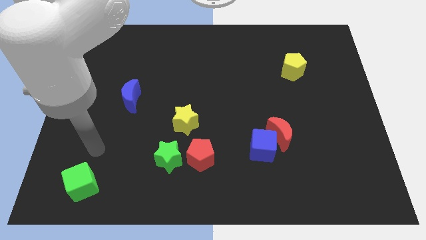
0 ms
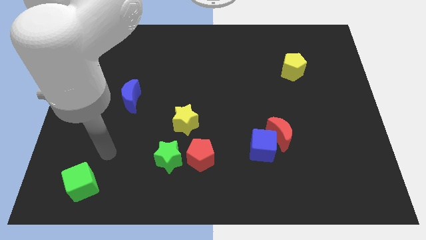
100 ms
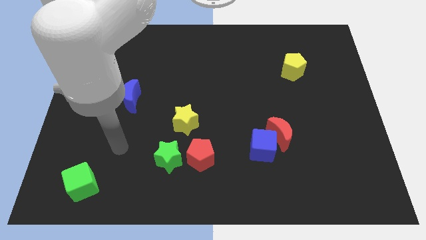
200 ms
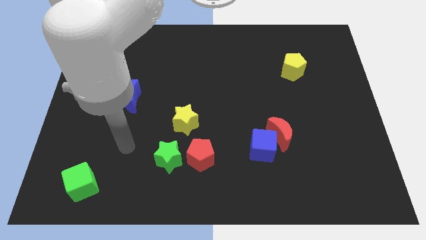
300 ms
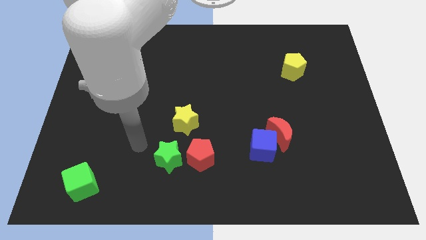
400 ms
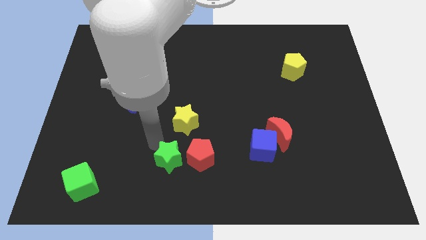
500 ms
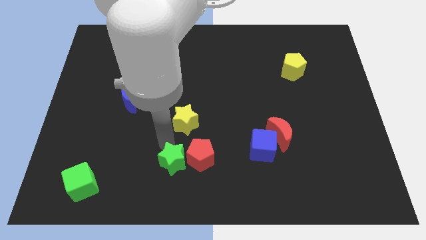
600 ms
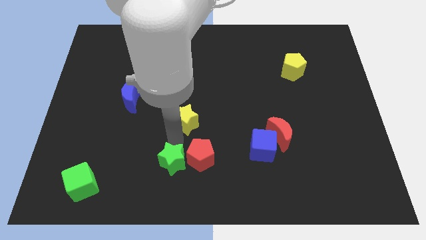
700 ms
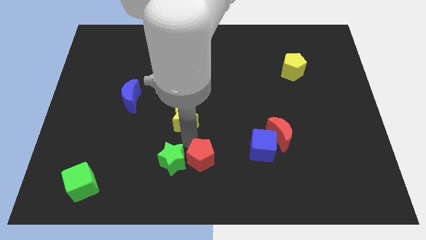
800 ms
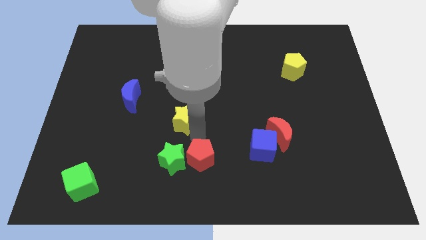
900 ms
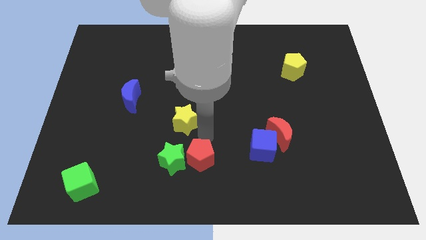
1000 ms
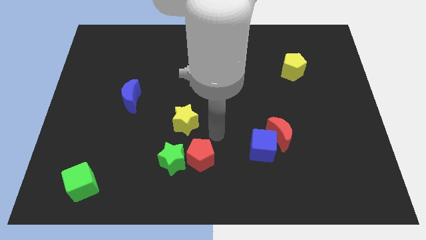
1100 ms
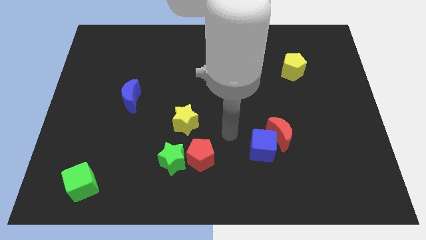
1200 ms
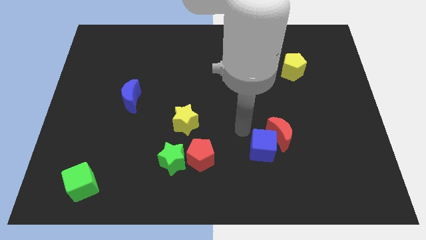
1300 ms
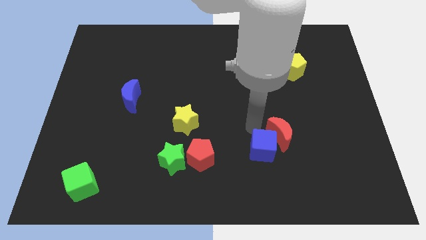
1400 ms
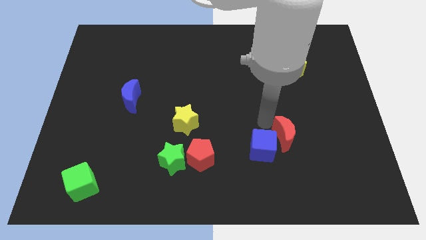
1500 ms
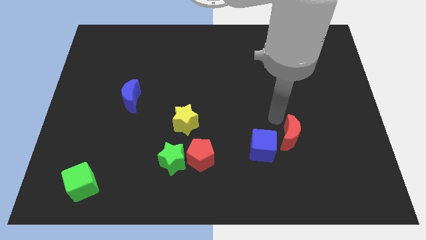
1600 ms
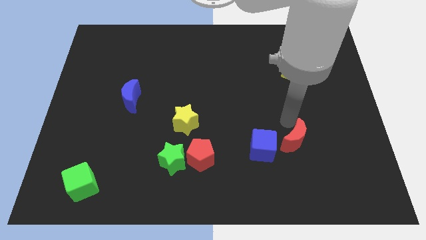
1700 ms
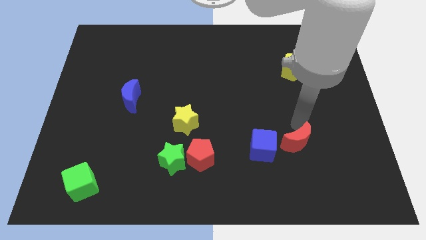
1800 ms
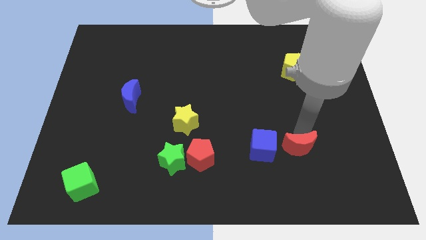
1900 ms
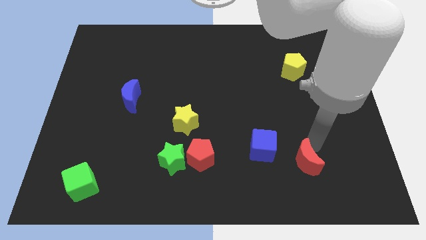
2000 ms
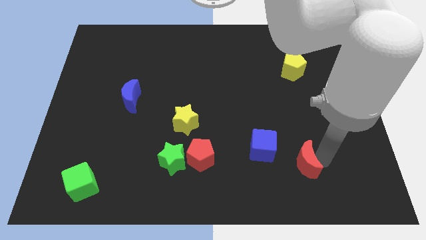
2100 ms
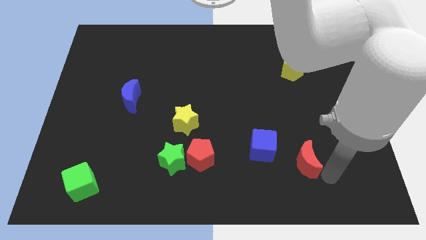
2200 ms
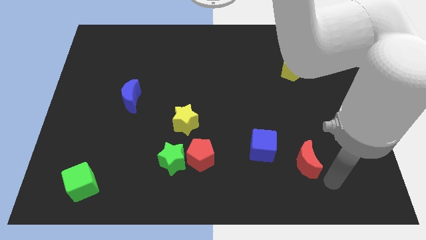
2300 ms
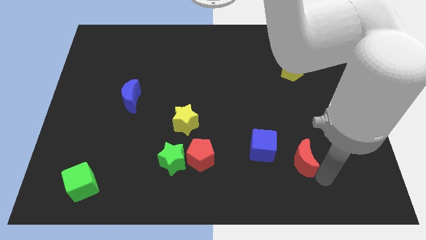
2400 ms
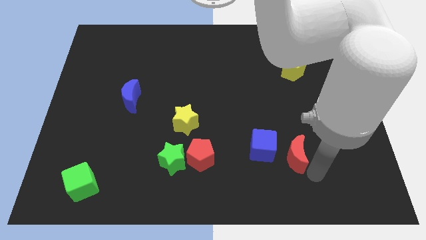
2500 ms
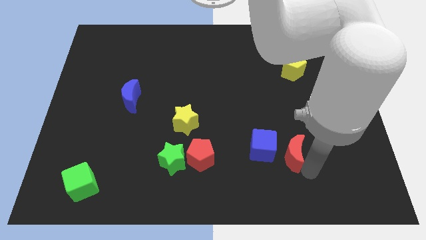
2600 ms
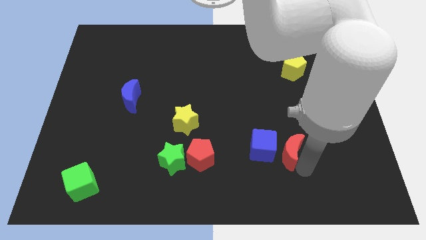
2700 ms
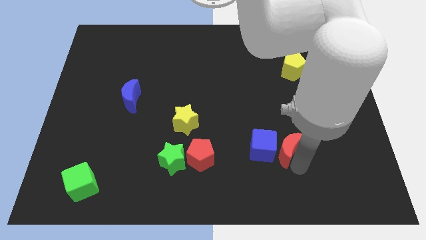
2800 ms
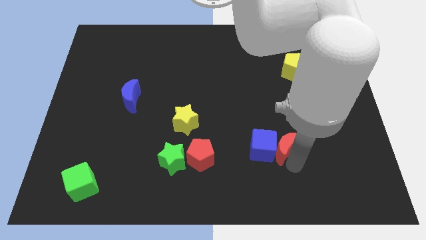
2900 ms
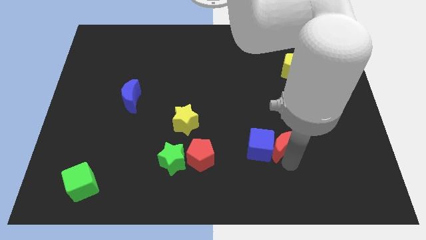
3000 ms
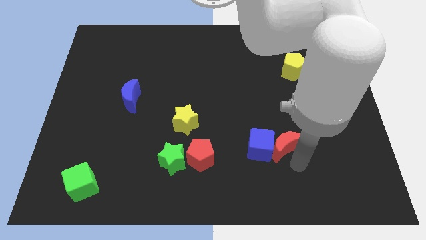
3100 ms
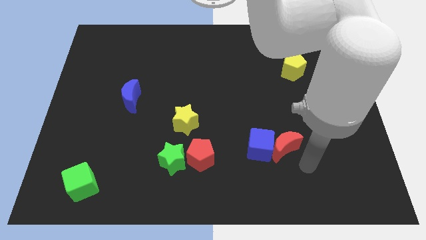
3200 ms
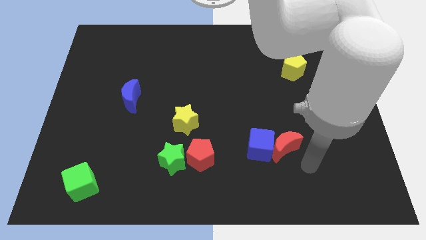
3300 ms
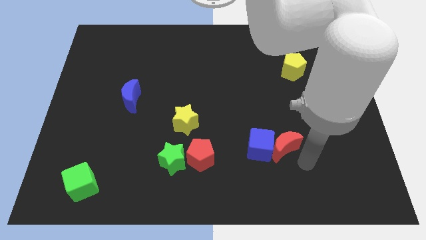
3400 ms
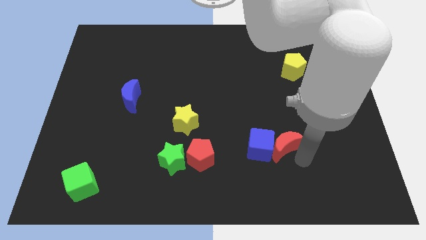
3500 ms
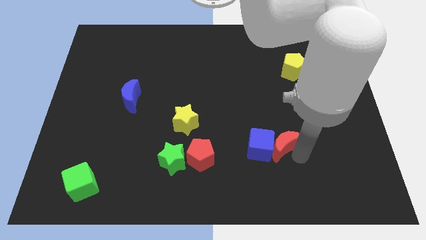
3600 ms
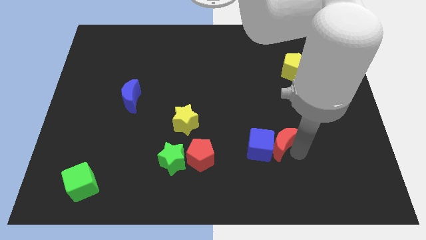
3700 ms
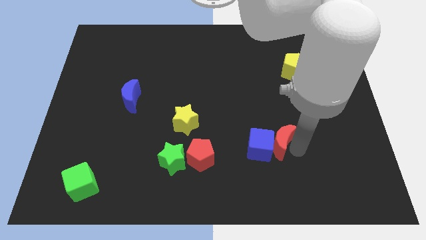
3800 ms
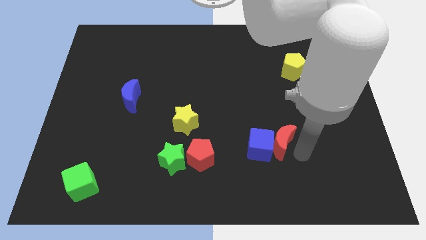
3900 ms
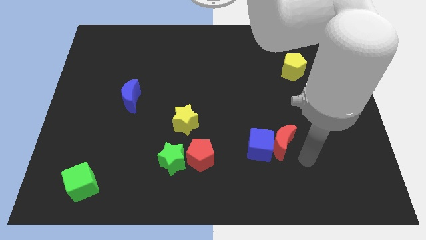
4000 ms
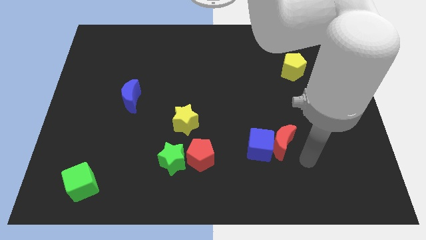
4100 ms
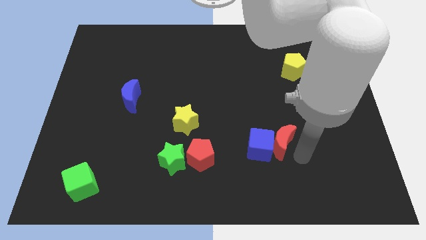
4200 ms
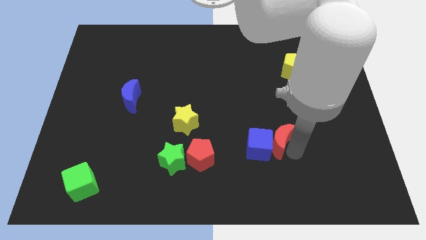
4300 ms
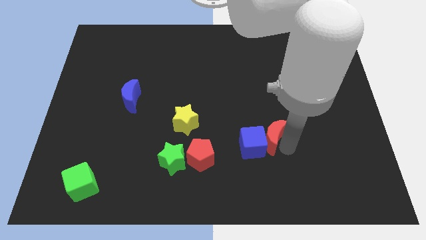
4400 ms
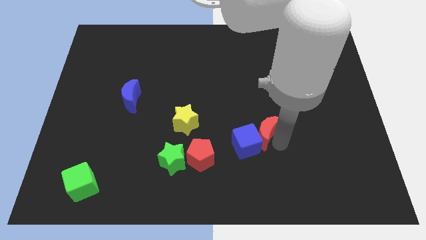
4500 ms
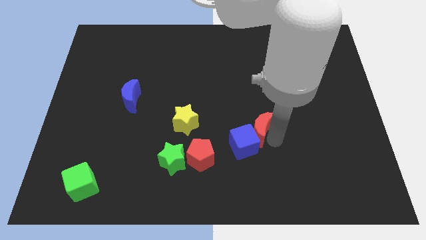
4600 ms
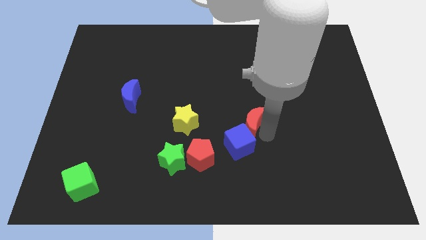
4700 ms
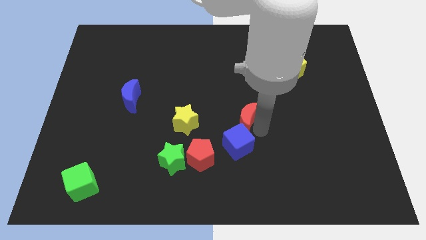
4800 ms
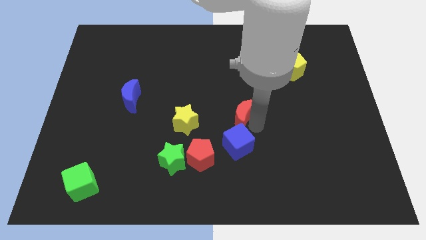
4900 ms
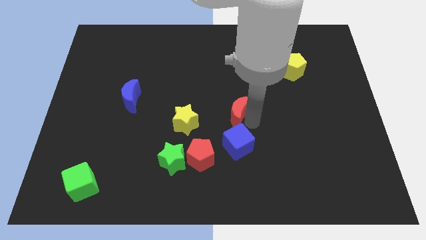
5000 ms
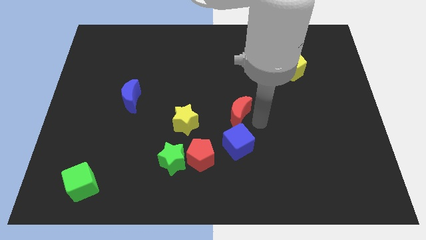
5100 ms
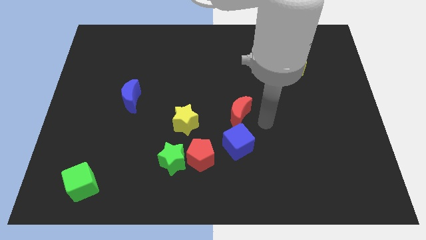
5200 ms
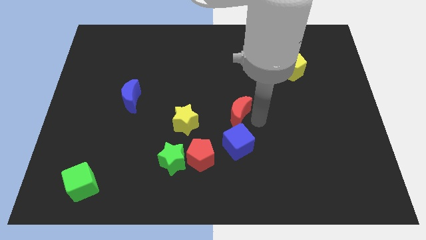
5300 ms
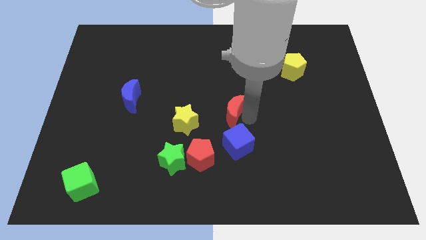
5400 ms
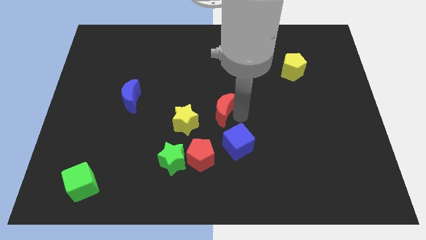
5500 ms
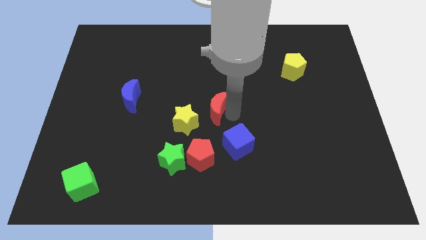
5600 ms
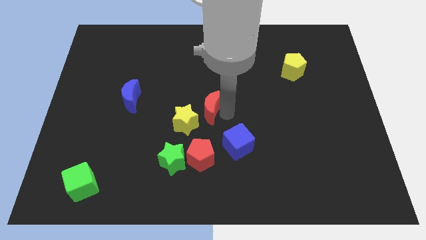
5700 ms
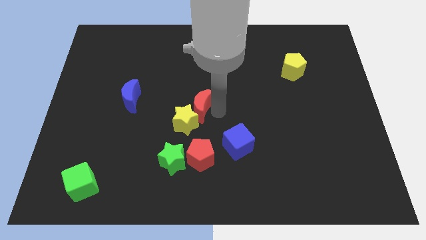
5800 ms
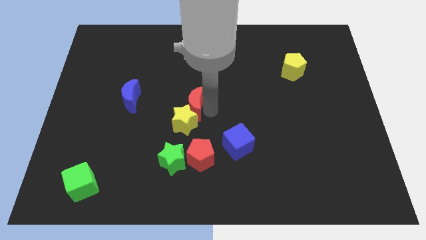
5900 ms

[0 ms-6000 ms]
slide the red moon to the right side of the blue moon

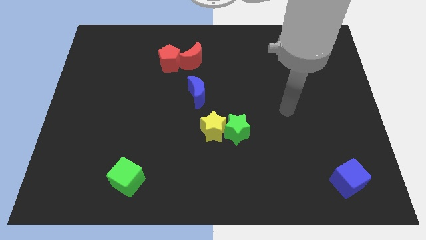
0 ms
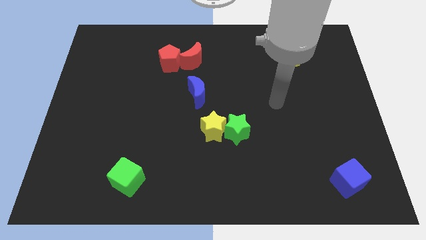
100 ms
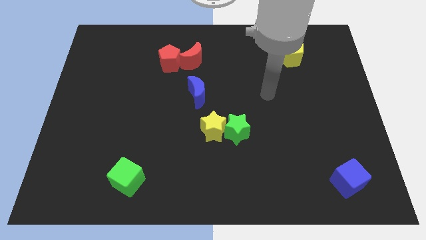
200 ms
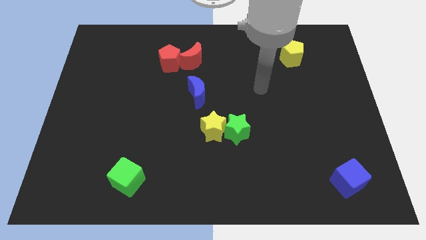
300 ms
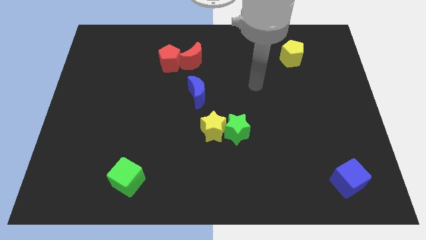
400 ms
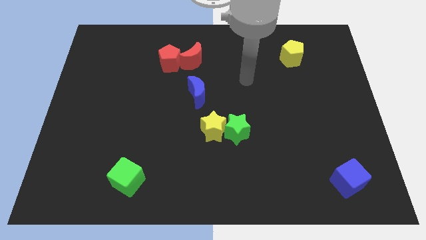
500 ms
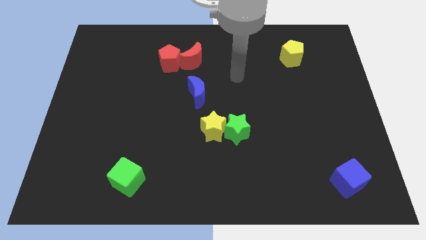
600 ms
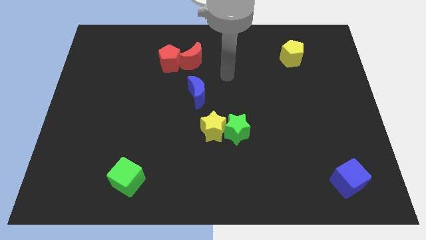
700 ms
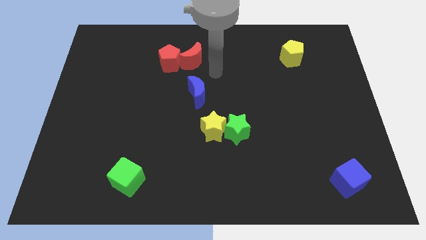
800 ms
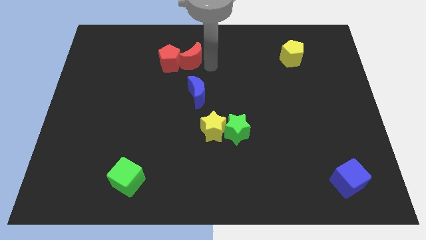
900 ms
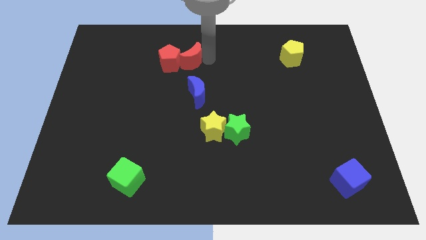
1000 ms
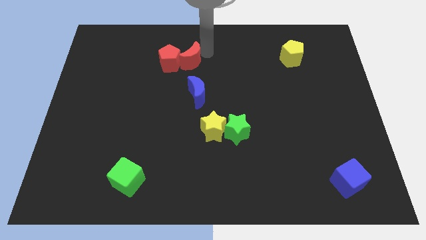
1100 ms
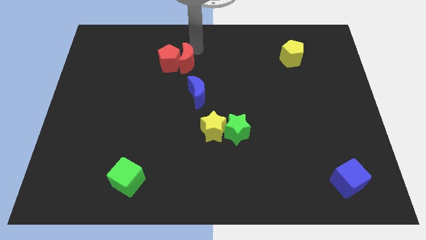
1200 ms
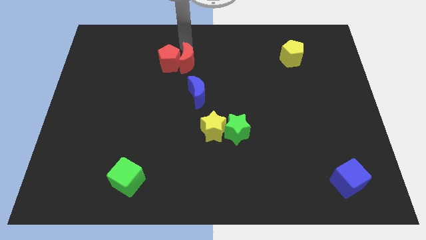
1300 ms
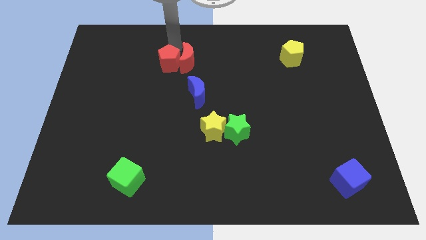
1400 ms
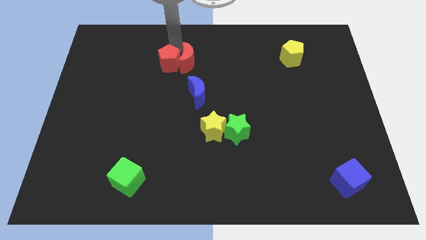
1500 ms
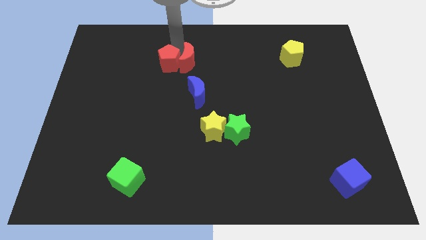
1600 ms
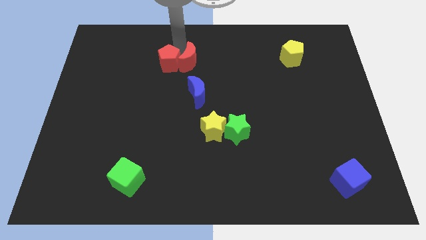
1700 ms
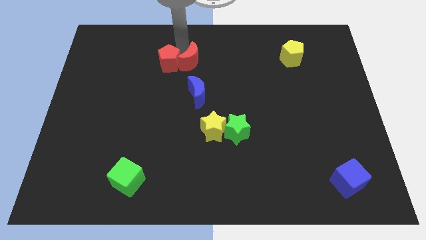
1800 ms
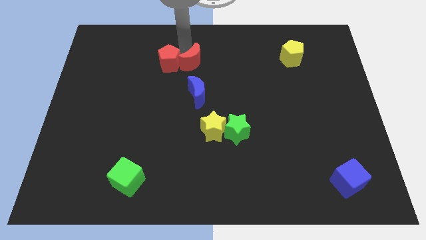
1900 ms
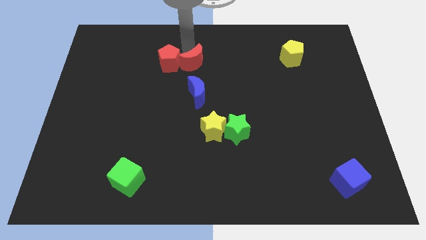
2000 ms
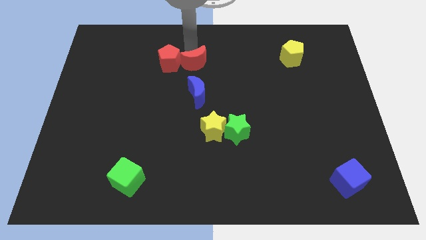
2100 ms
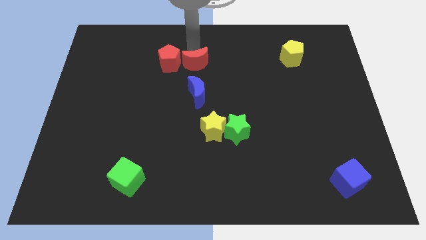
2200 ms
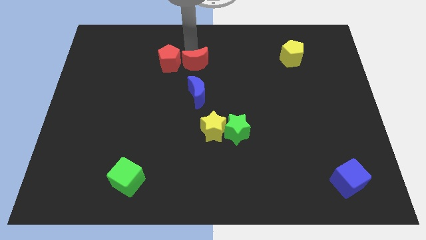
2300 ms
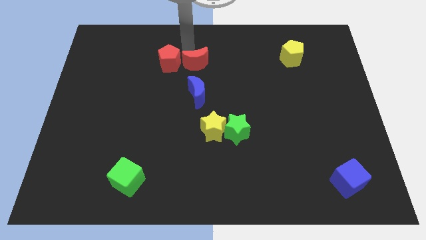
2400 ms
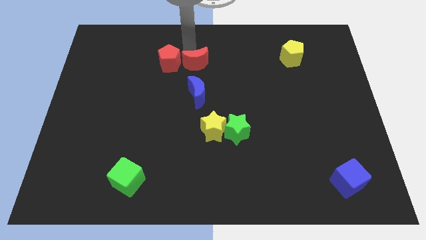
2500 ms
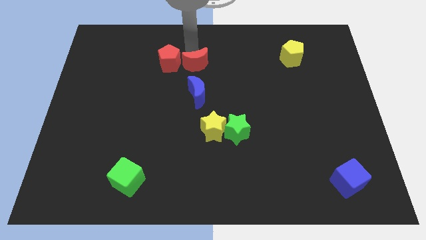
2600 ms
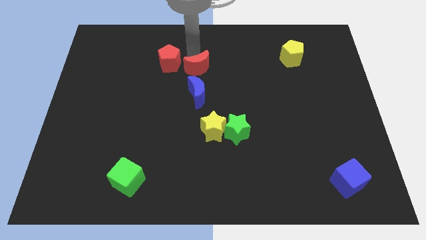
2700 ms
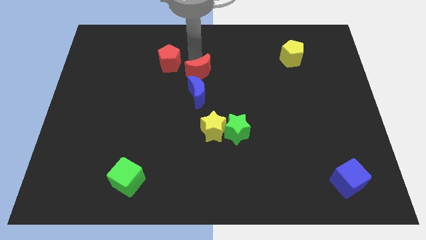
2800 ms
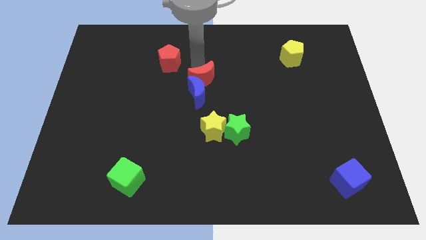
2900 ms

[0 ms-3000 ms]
push the red moon to the top of the yellow star
